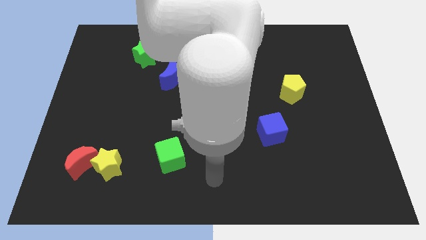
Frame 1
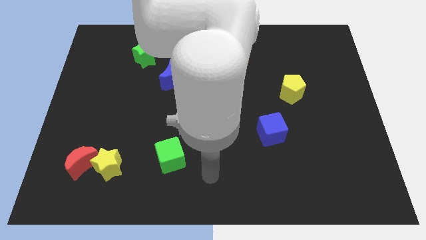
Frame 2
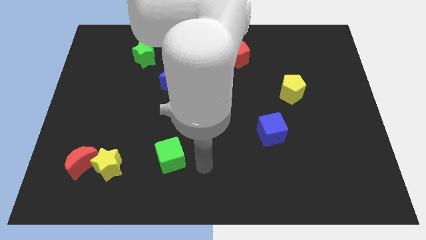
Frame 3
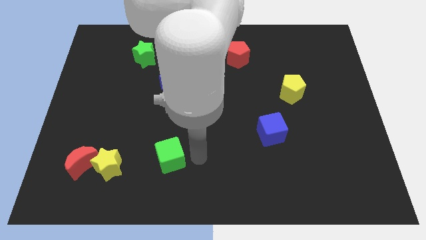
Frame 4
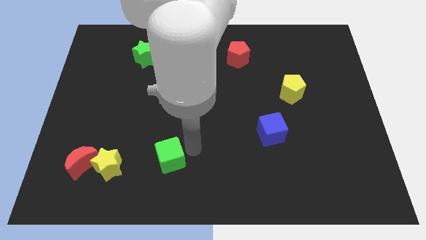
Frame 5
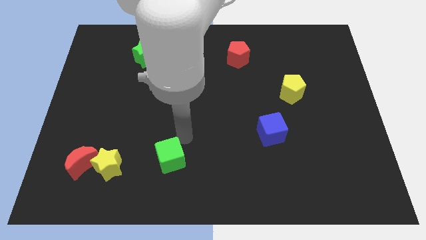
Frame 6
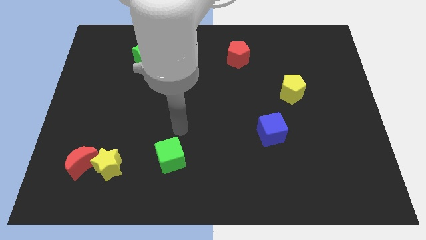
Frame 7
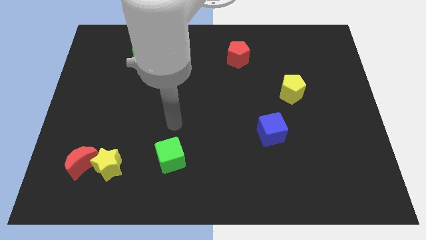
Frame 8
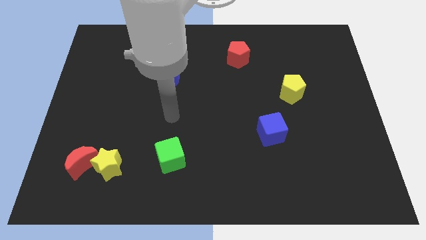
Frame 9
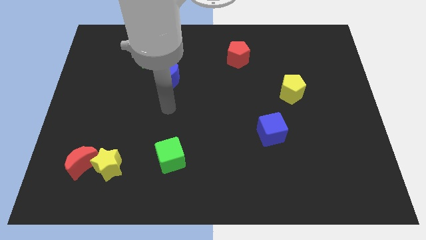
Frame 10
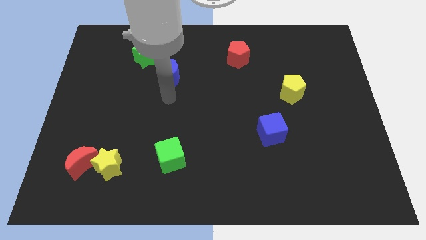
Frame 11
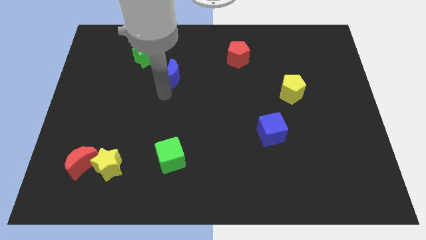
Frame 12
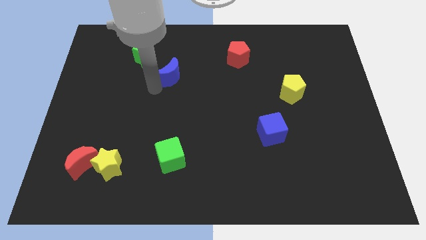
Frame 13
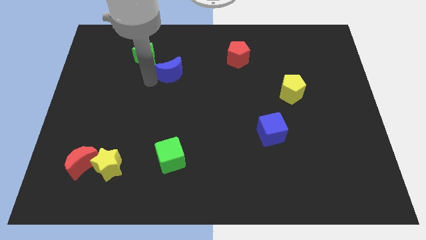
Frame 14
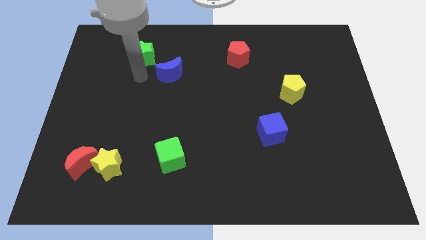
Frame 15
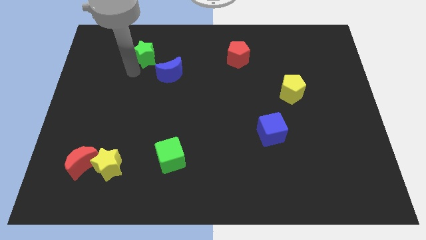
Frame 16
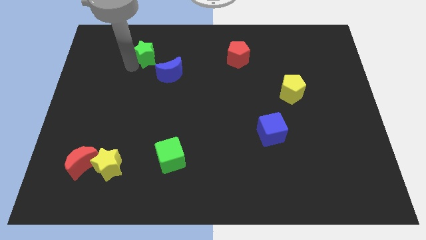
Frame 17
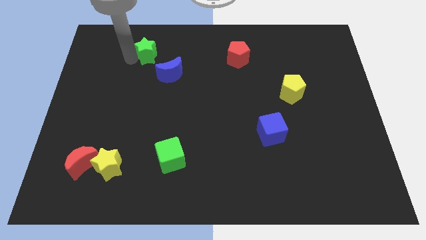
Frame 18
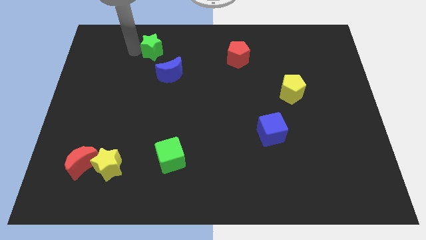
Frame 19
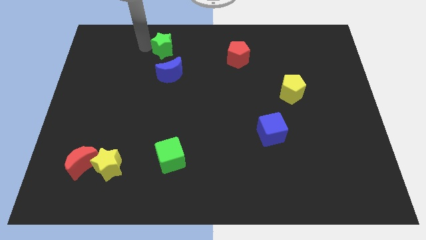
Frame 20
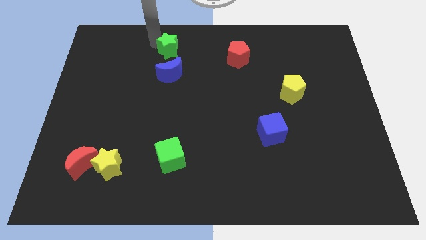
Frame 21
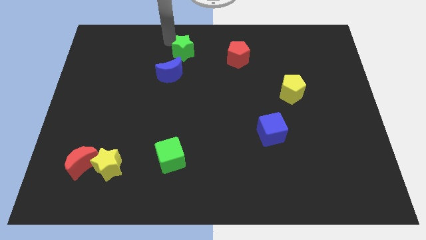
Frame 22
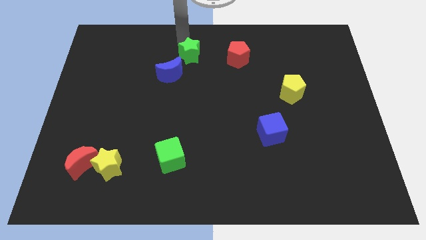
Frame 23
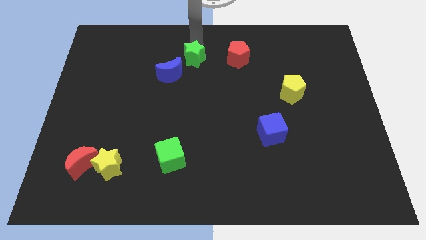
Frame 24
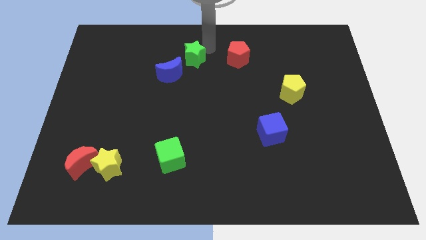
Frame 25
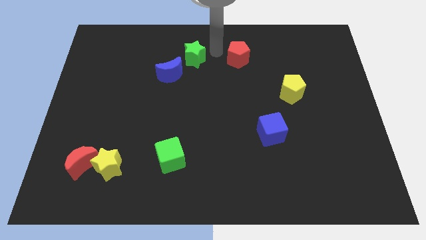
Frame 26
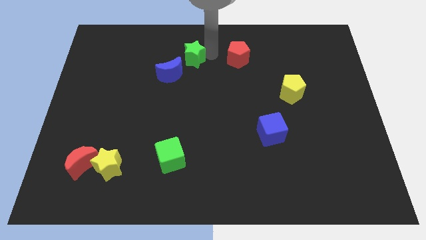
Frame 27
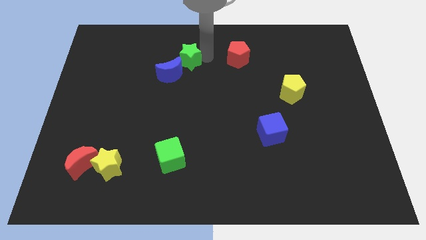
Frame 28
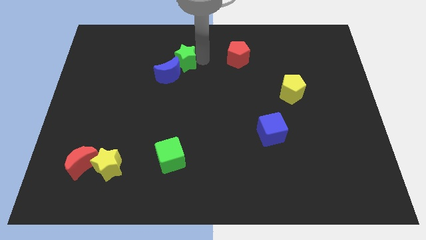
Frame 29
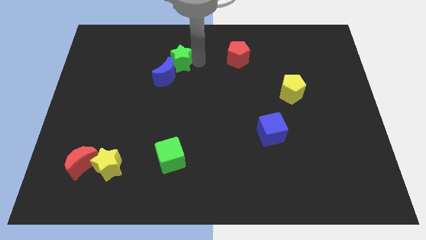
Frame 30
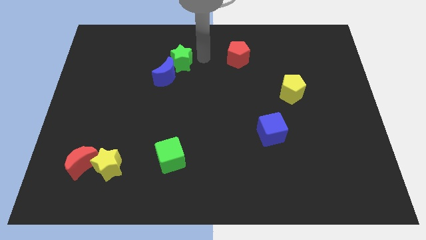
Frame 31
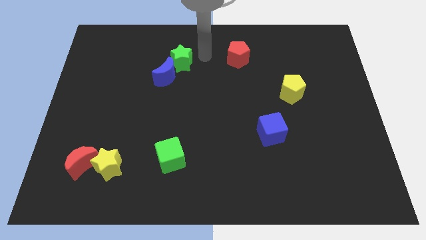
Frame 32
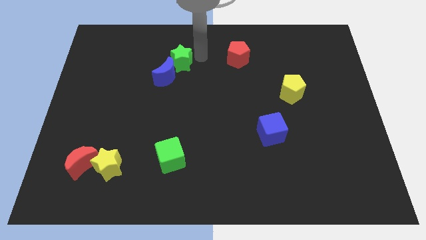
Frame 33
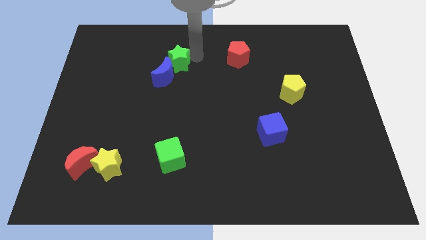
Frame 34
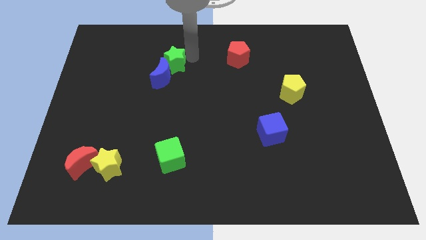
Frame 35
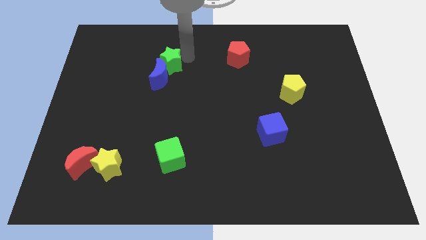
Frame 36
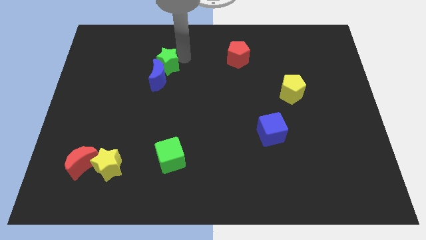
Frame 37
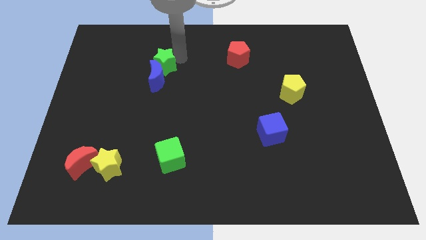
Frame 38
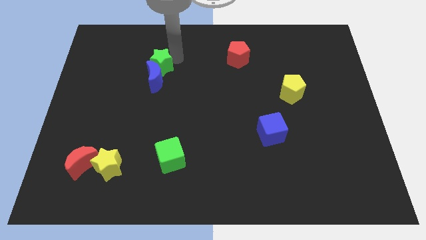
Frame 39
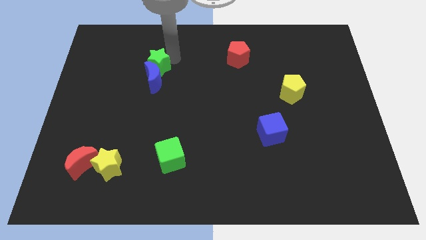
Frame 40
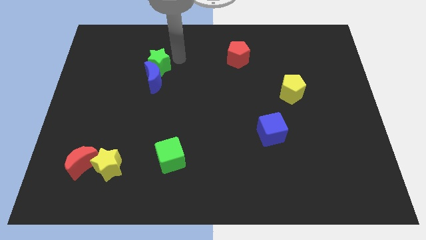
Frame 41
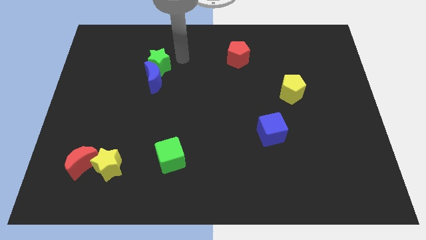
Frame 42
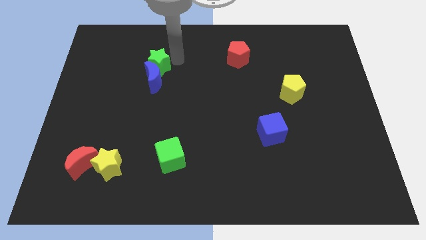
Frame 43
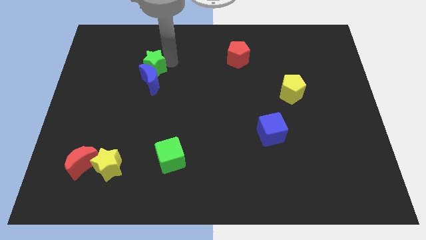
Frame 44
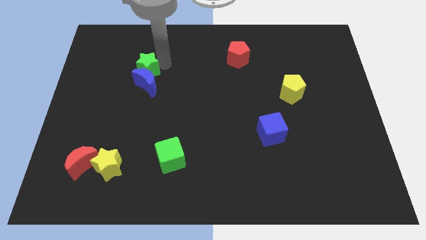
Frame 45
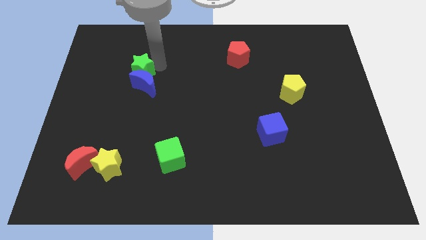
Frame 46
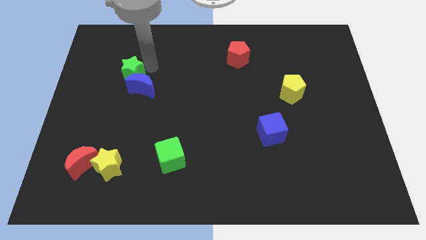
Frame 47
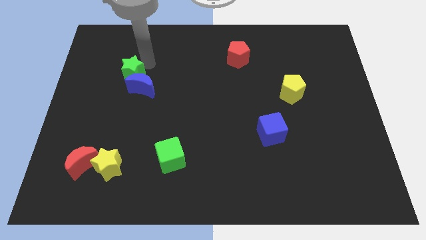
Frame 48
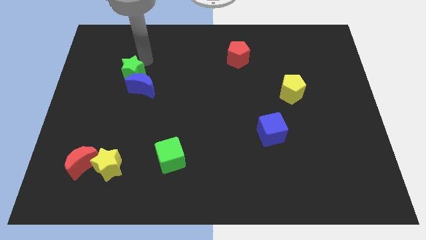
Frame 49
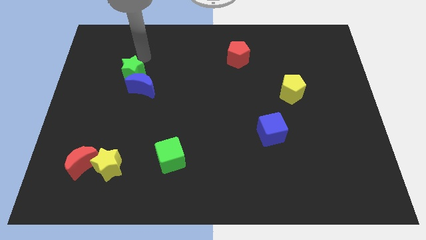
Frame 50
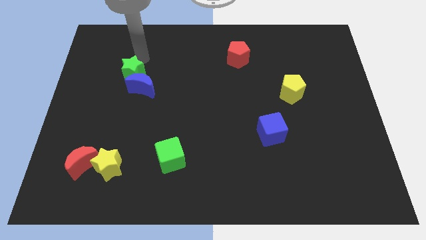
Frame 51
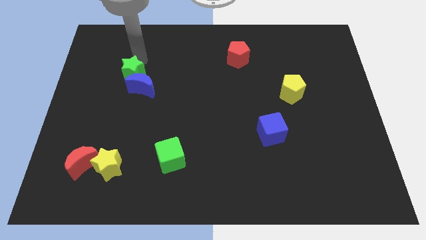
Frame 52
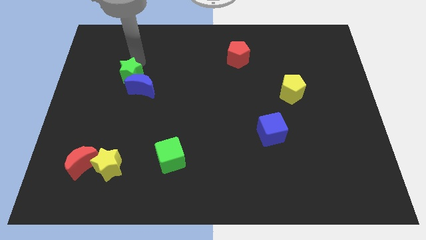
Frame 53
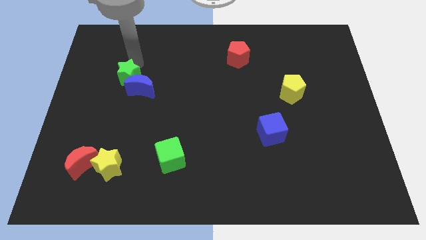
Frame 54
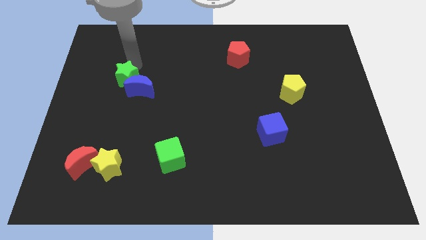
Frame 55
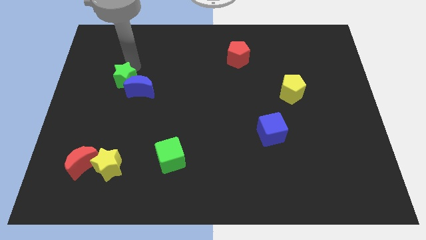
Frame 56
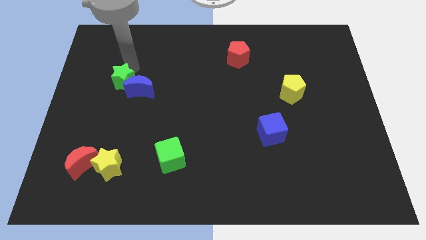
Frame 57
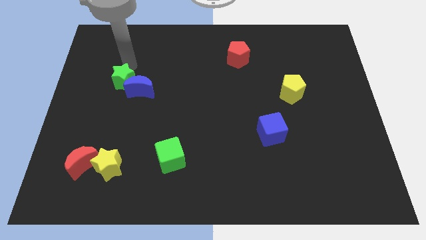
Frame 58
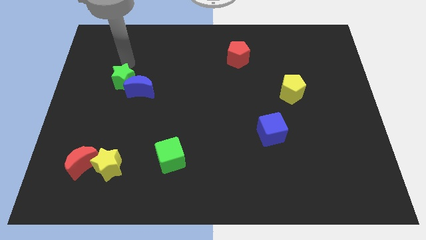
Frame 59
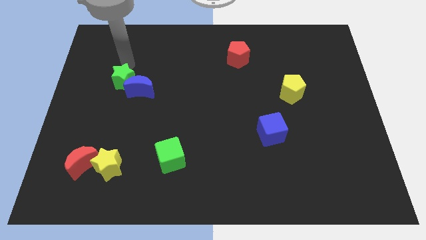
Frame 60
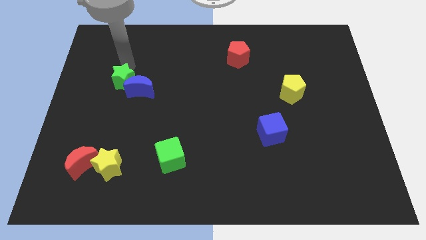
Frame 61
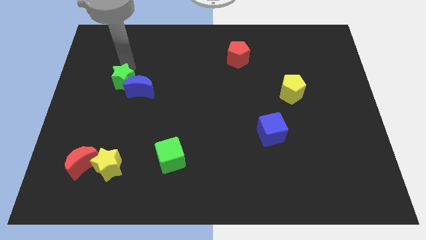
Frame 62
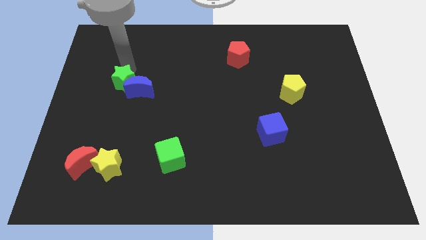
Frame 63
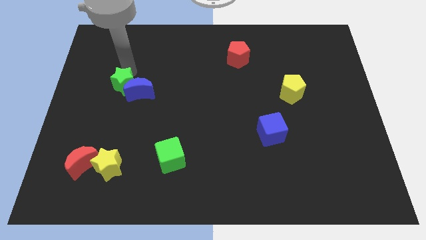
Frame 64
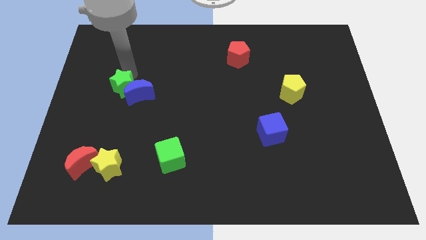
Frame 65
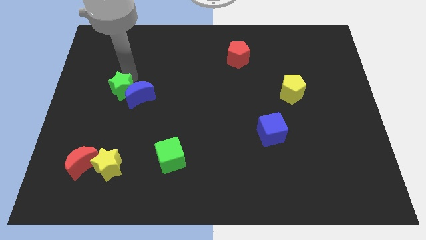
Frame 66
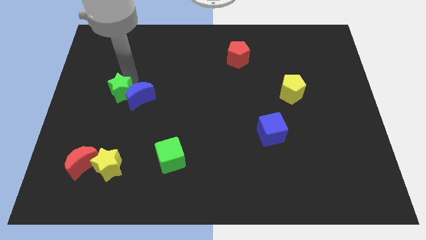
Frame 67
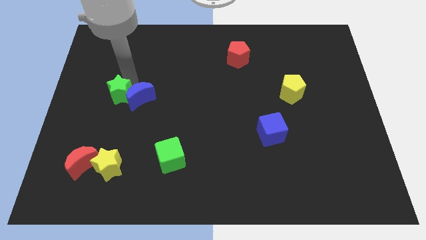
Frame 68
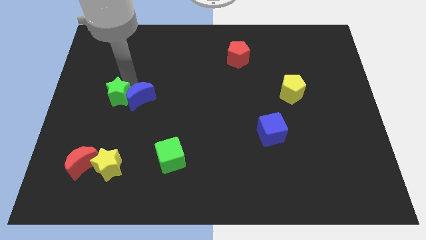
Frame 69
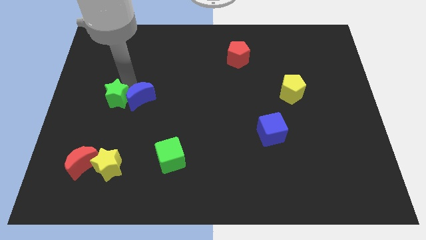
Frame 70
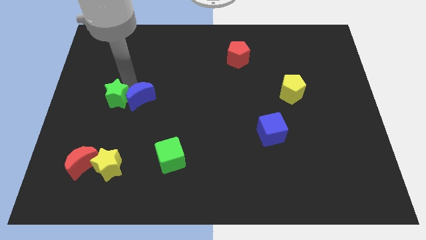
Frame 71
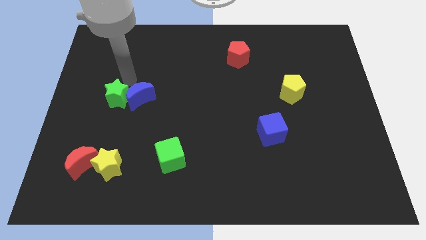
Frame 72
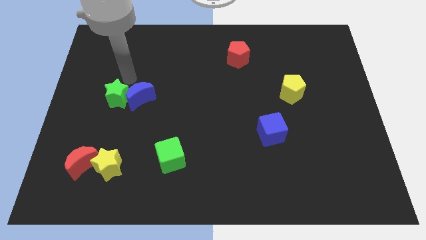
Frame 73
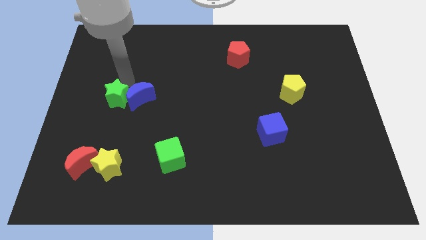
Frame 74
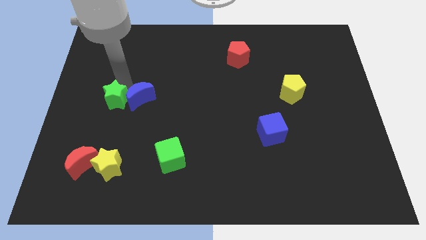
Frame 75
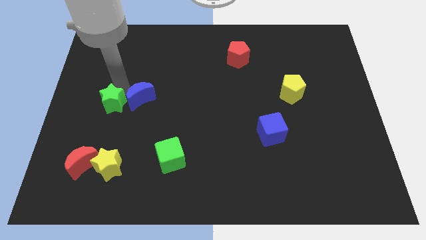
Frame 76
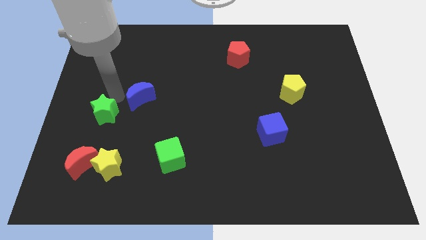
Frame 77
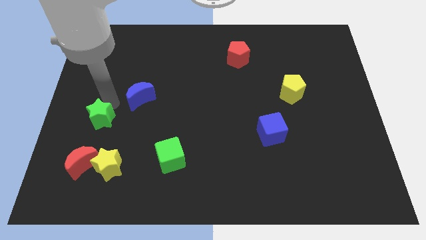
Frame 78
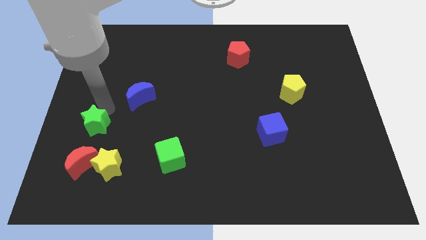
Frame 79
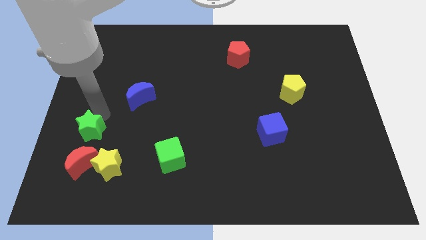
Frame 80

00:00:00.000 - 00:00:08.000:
push the green star diagonally up and to the left of the yellow star
